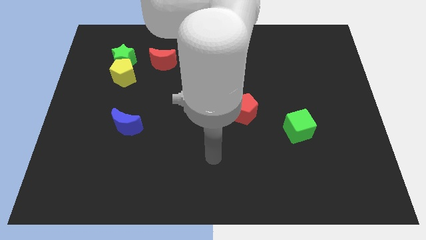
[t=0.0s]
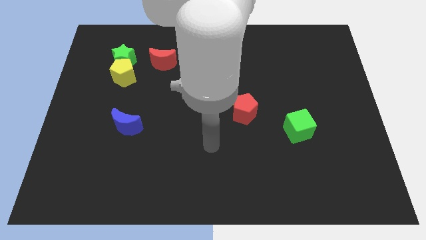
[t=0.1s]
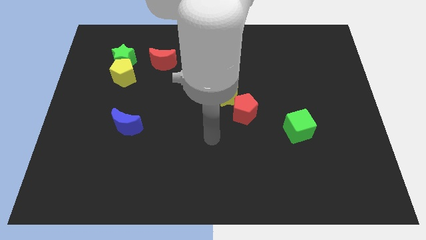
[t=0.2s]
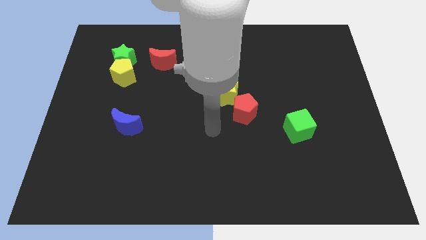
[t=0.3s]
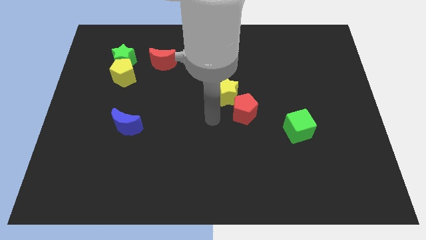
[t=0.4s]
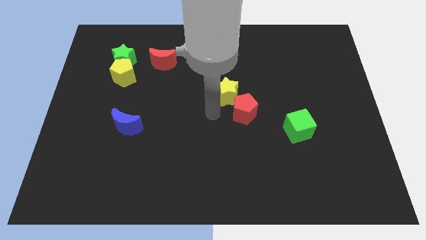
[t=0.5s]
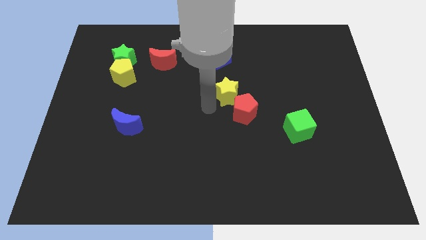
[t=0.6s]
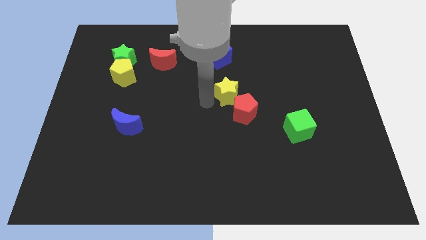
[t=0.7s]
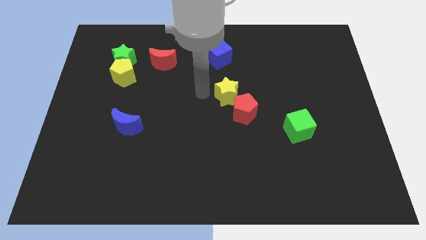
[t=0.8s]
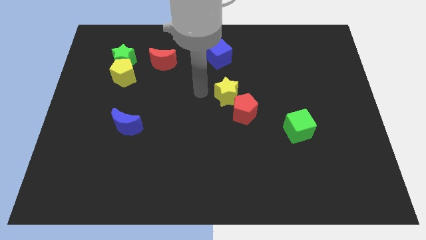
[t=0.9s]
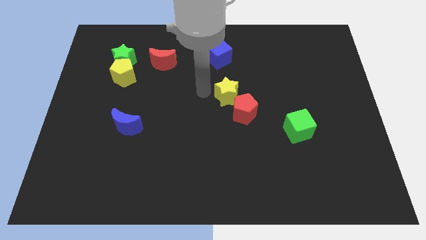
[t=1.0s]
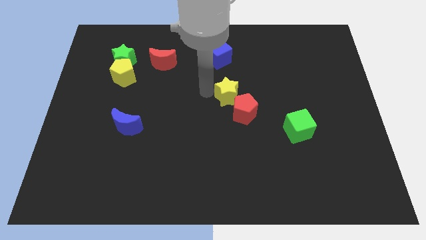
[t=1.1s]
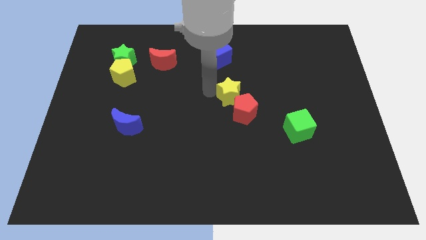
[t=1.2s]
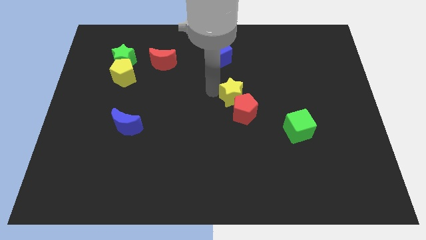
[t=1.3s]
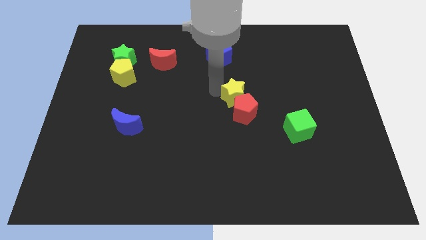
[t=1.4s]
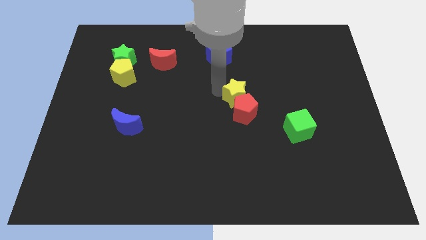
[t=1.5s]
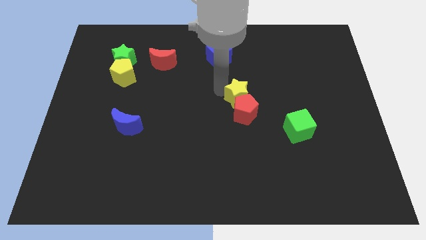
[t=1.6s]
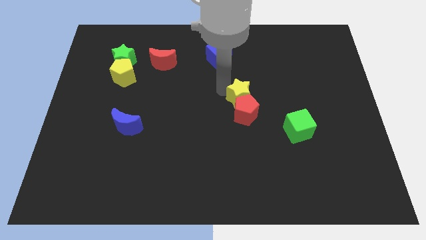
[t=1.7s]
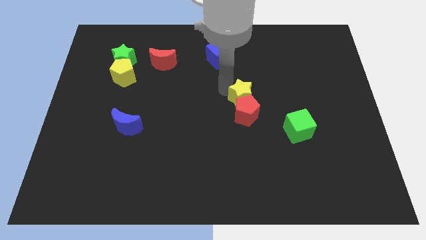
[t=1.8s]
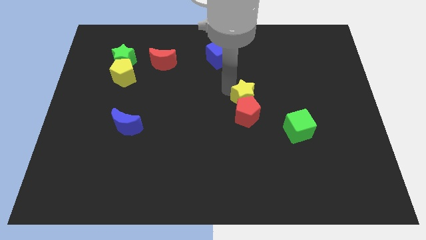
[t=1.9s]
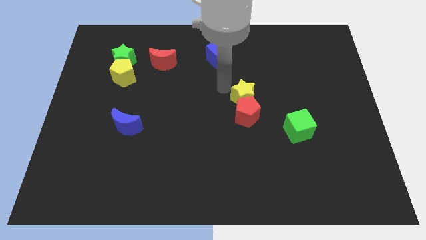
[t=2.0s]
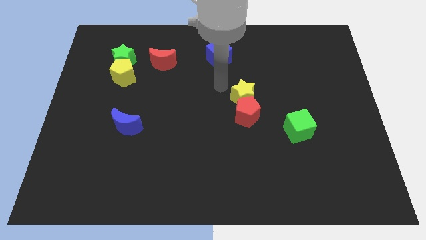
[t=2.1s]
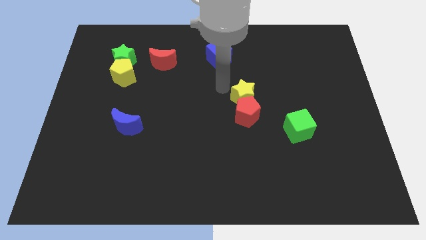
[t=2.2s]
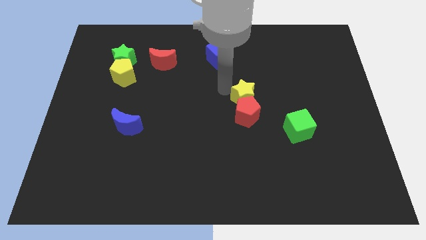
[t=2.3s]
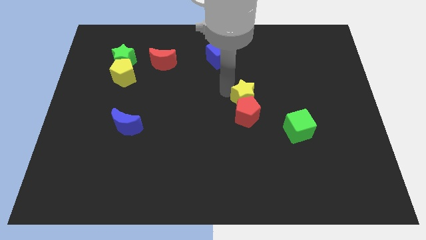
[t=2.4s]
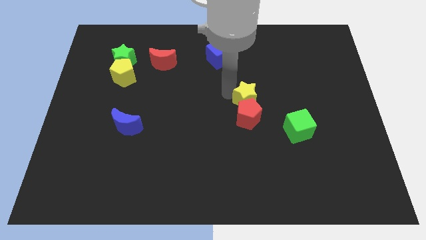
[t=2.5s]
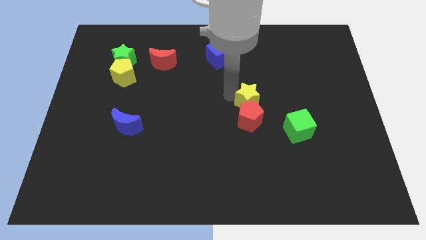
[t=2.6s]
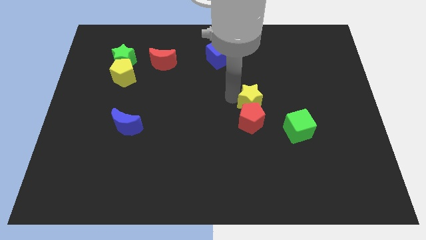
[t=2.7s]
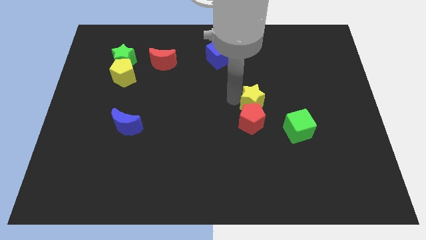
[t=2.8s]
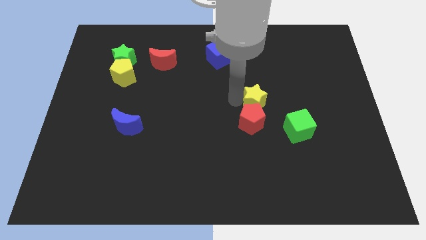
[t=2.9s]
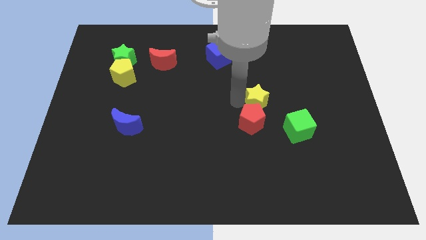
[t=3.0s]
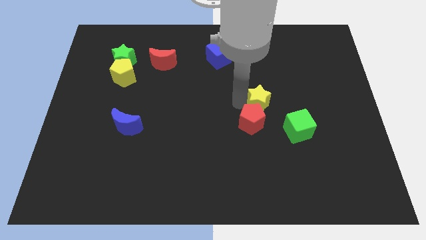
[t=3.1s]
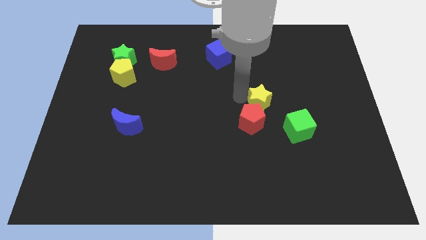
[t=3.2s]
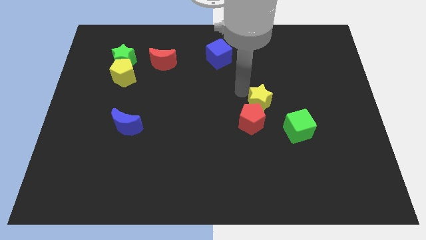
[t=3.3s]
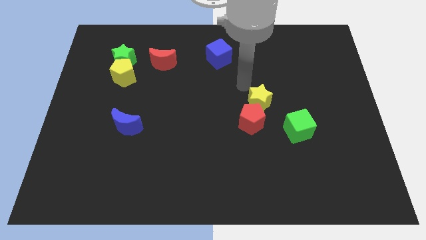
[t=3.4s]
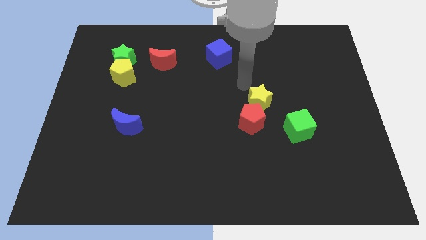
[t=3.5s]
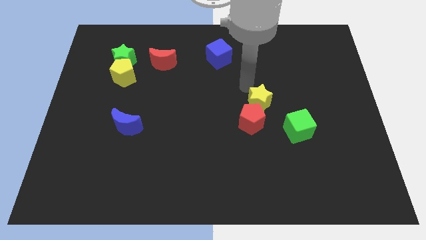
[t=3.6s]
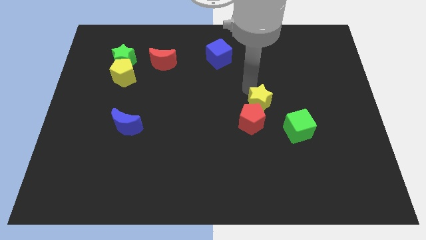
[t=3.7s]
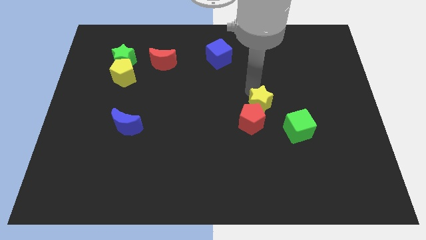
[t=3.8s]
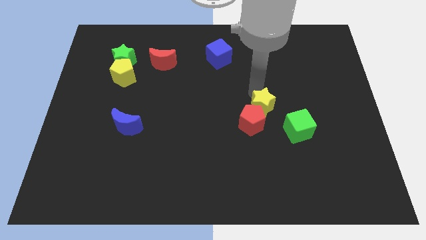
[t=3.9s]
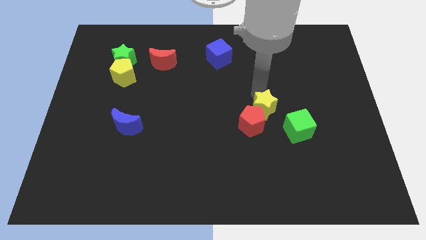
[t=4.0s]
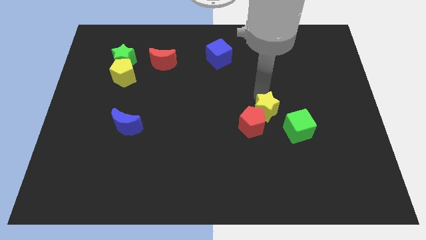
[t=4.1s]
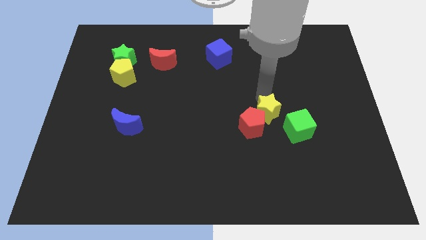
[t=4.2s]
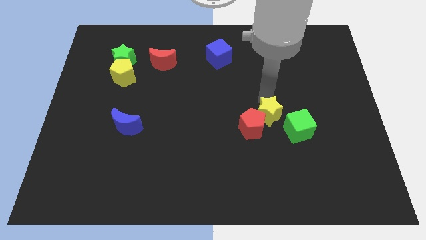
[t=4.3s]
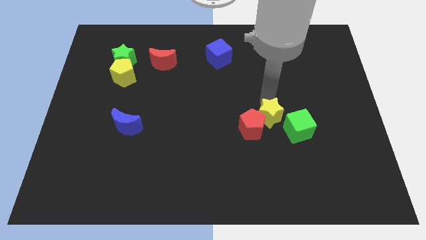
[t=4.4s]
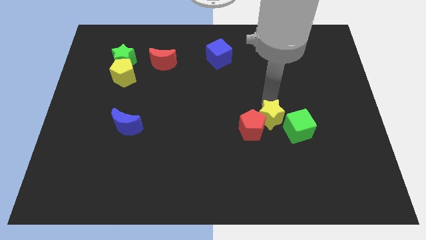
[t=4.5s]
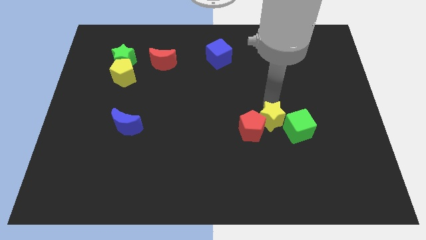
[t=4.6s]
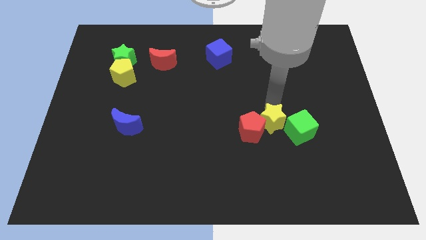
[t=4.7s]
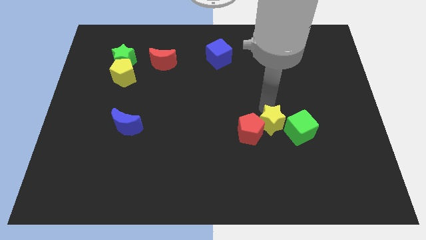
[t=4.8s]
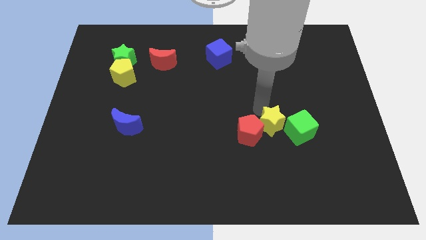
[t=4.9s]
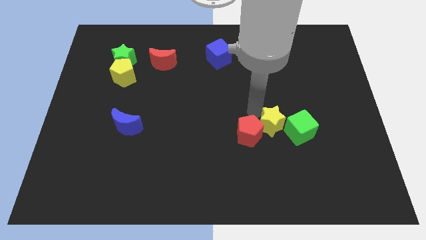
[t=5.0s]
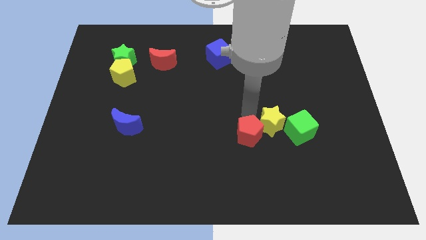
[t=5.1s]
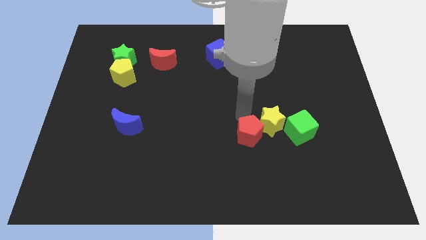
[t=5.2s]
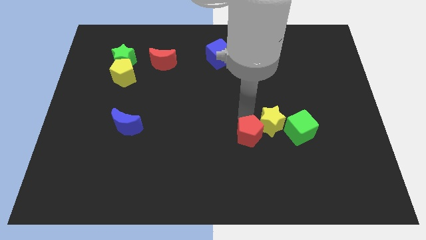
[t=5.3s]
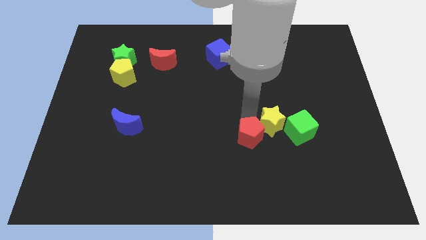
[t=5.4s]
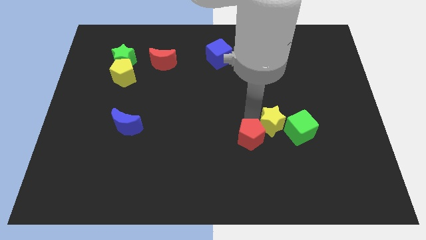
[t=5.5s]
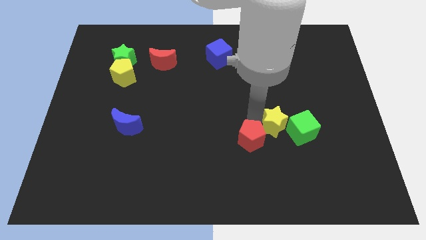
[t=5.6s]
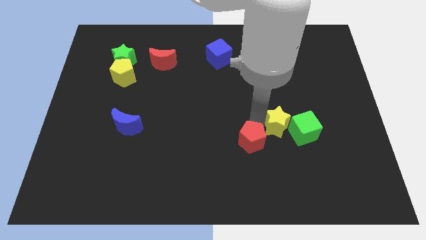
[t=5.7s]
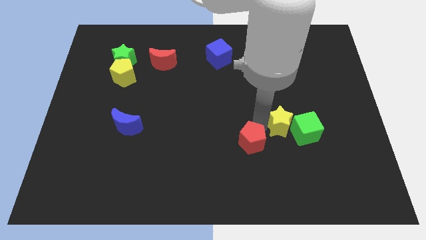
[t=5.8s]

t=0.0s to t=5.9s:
slide the yellow star next to the green cube

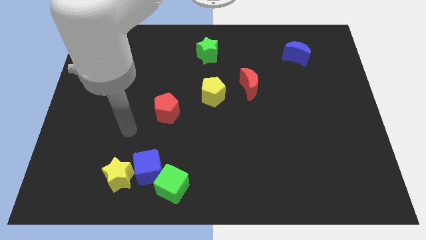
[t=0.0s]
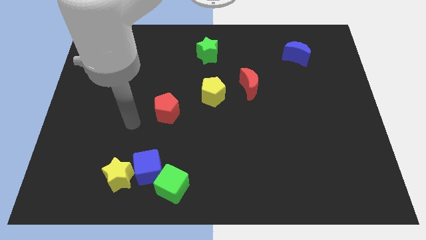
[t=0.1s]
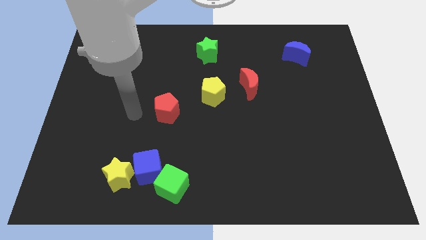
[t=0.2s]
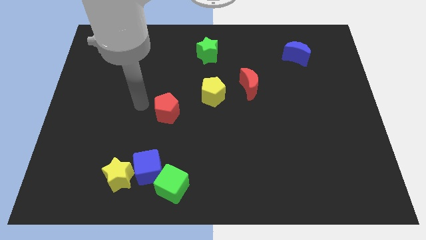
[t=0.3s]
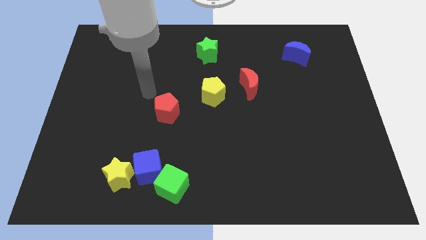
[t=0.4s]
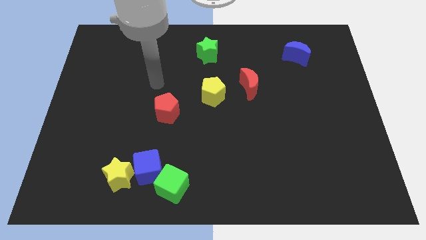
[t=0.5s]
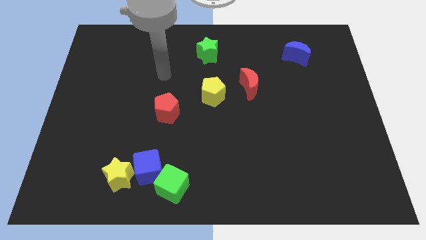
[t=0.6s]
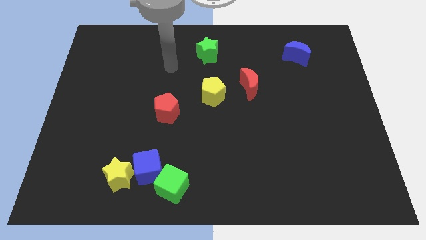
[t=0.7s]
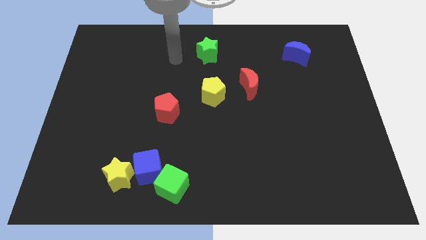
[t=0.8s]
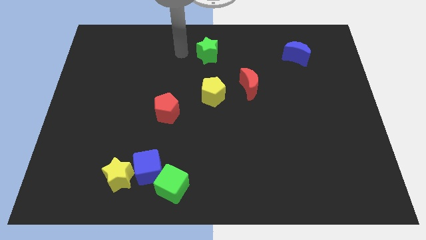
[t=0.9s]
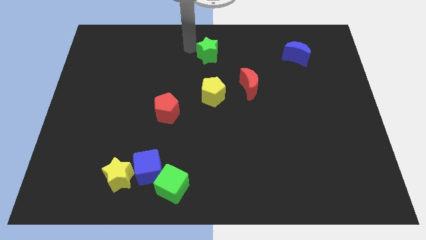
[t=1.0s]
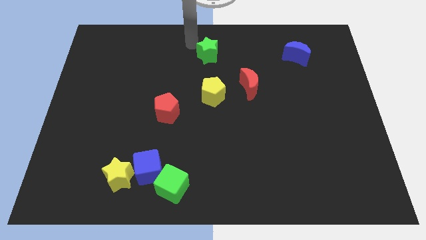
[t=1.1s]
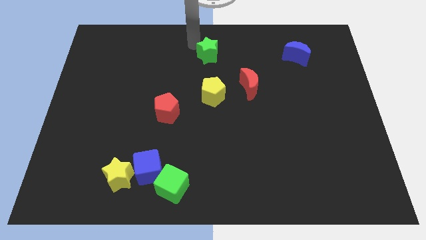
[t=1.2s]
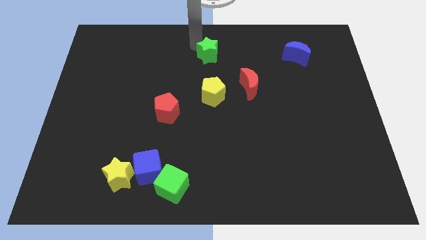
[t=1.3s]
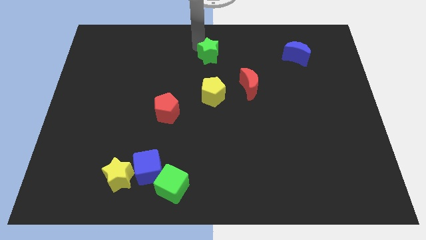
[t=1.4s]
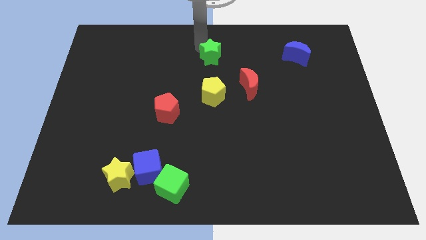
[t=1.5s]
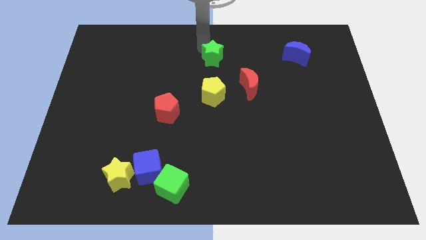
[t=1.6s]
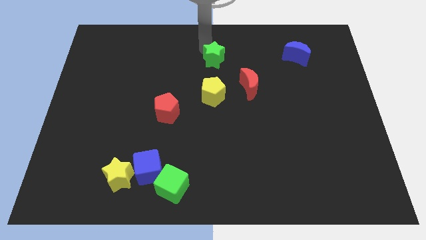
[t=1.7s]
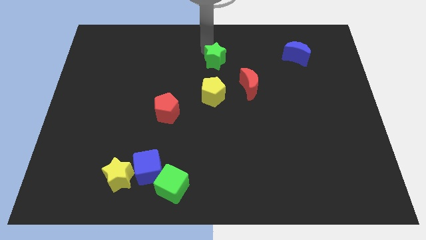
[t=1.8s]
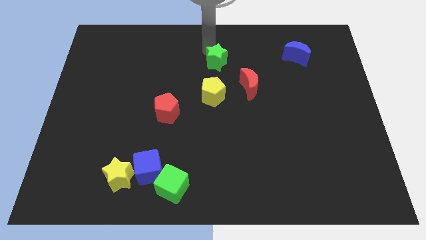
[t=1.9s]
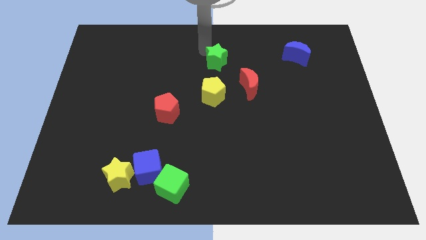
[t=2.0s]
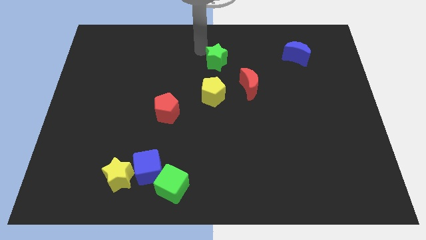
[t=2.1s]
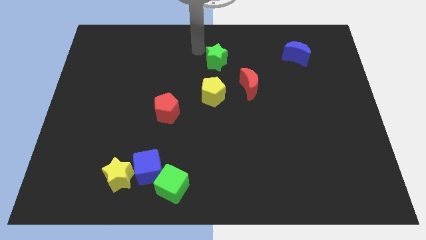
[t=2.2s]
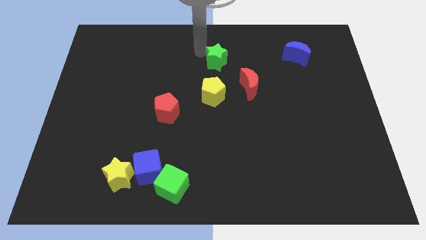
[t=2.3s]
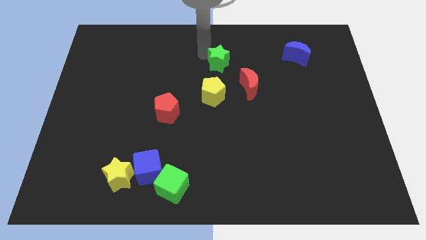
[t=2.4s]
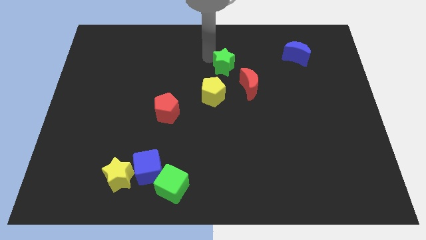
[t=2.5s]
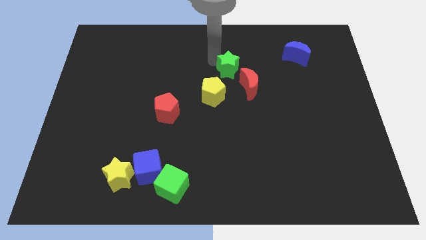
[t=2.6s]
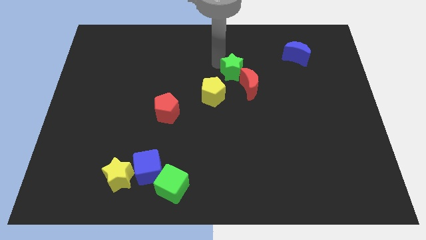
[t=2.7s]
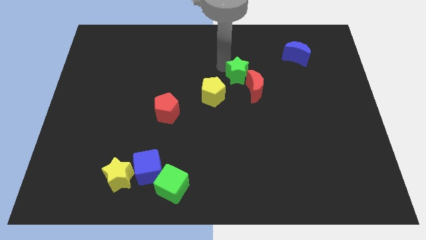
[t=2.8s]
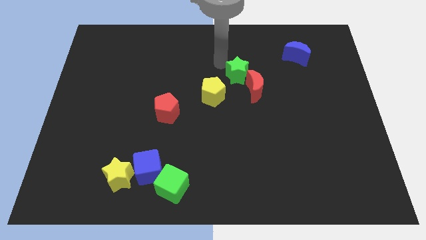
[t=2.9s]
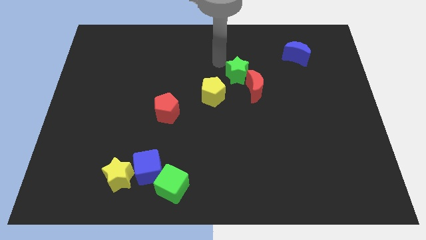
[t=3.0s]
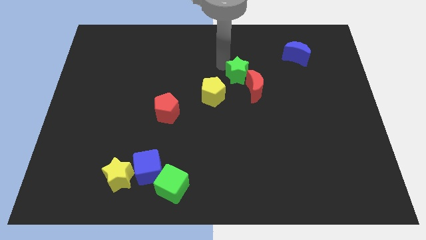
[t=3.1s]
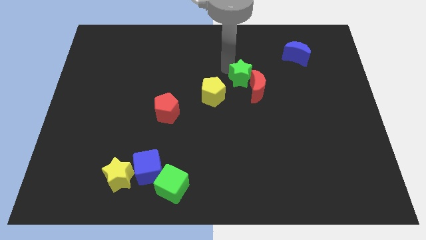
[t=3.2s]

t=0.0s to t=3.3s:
move the green star next to the red moon
